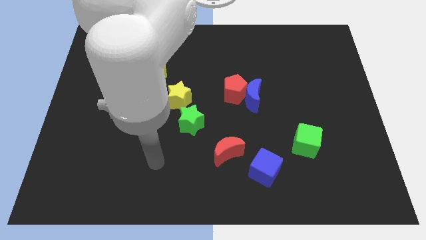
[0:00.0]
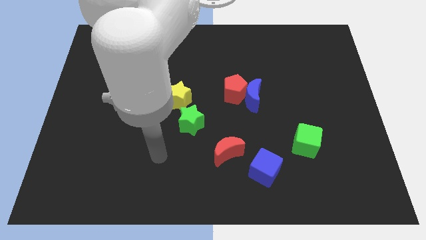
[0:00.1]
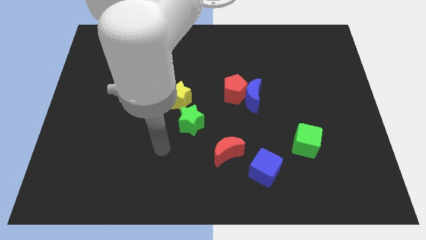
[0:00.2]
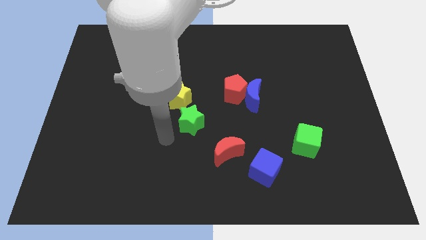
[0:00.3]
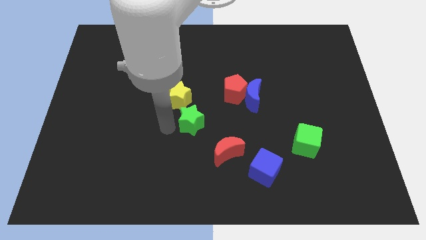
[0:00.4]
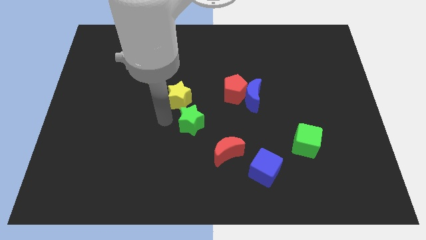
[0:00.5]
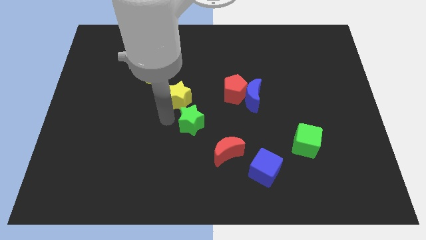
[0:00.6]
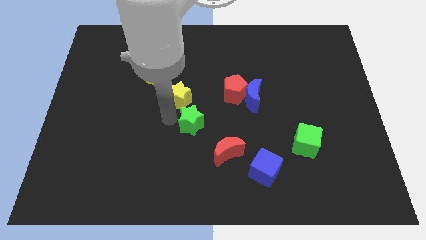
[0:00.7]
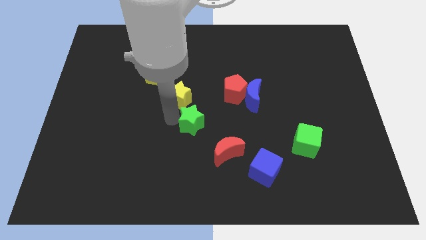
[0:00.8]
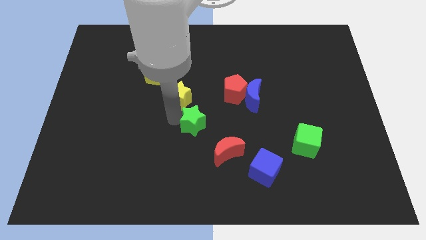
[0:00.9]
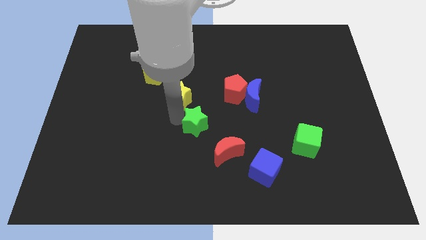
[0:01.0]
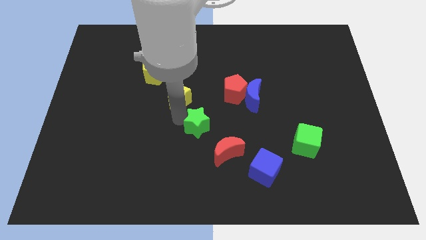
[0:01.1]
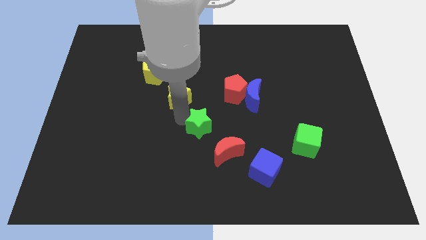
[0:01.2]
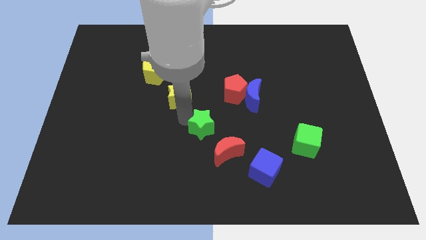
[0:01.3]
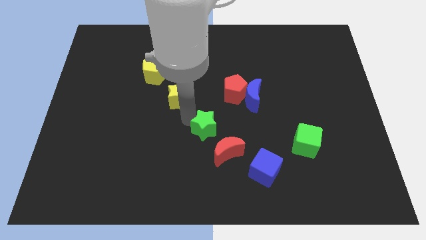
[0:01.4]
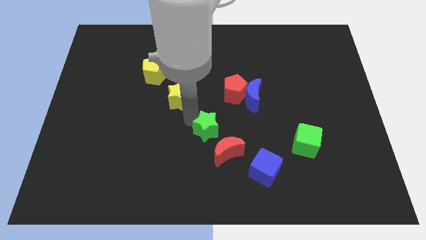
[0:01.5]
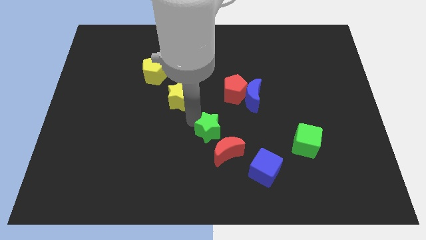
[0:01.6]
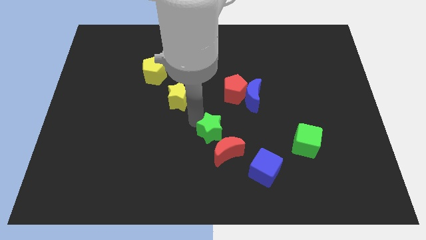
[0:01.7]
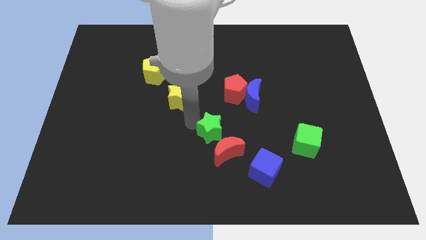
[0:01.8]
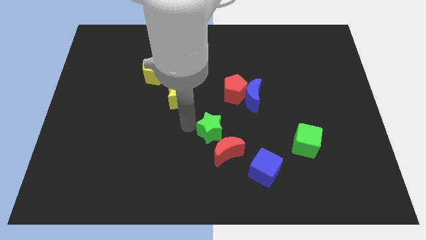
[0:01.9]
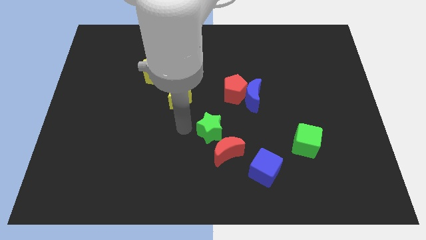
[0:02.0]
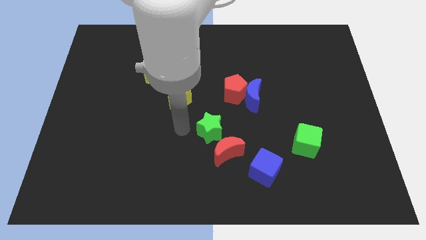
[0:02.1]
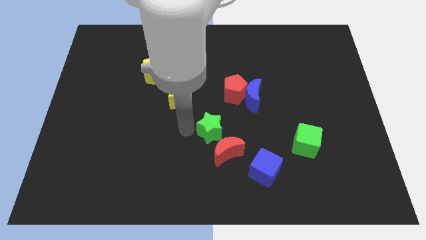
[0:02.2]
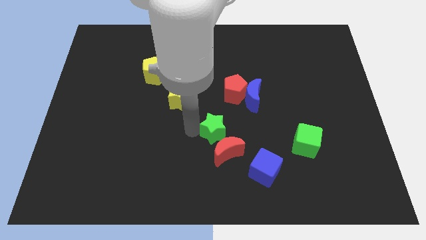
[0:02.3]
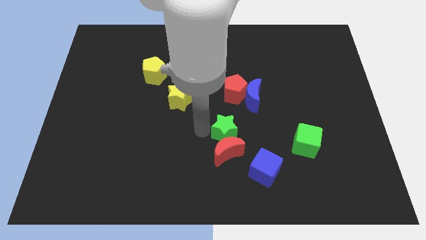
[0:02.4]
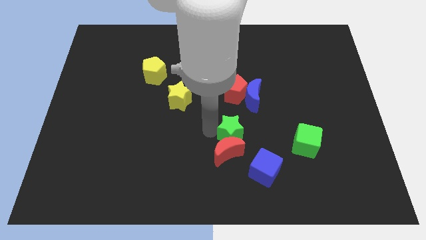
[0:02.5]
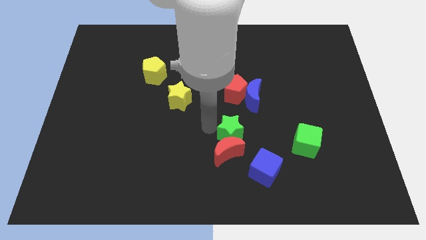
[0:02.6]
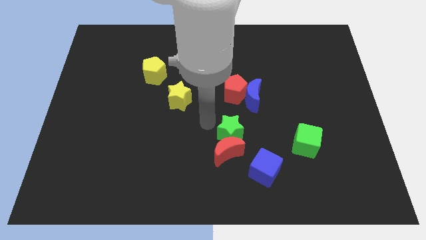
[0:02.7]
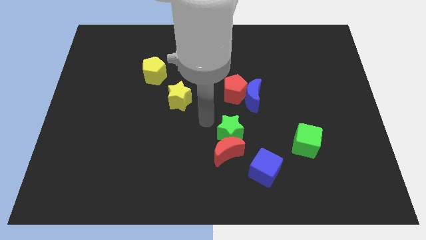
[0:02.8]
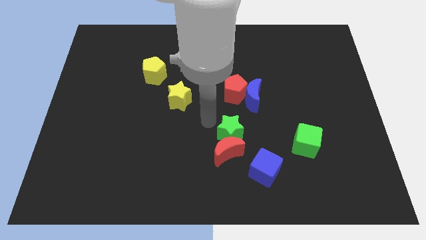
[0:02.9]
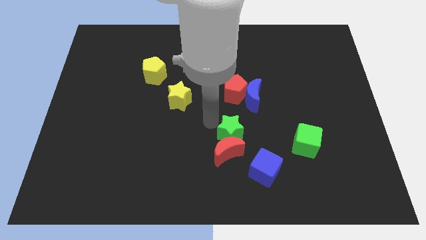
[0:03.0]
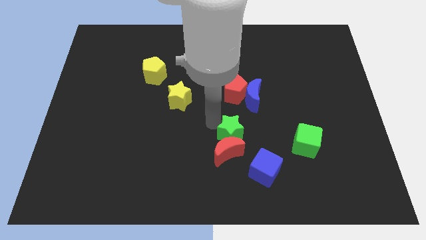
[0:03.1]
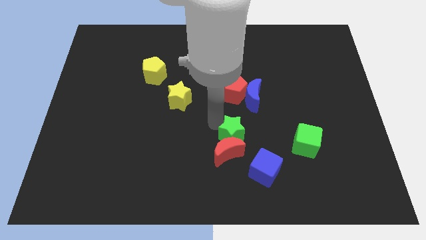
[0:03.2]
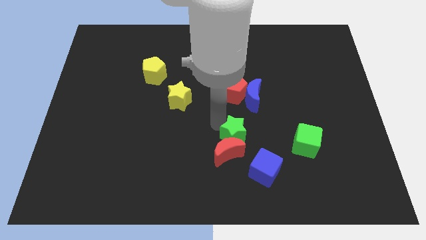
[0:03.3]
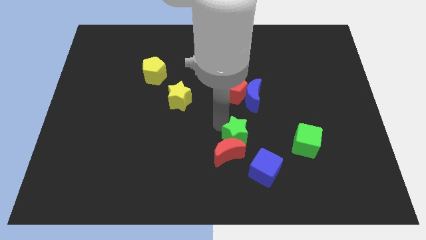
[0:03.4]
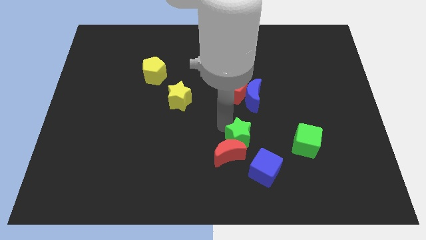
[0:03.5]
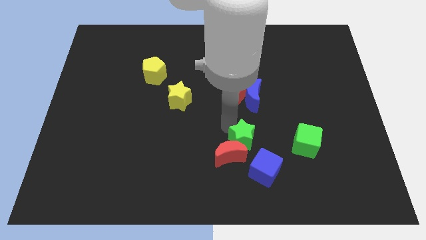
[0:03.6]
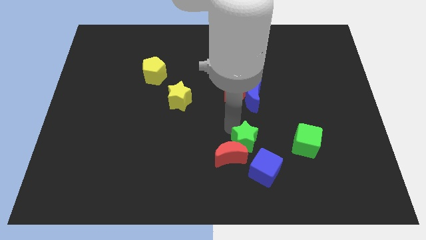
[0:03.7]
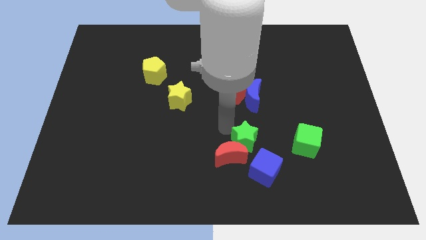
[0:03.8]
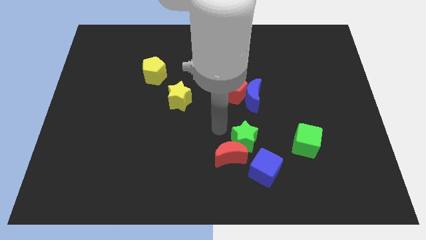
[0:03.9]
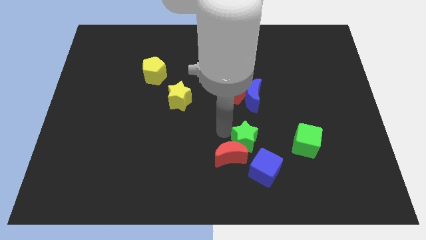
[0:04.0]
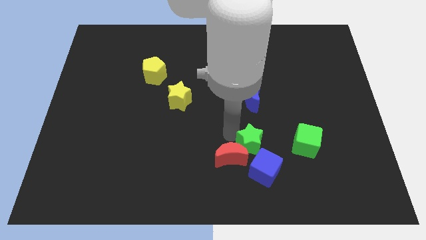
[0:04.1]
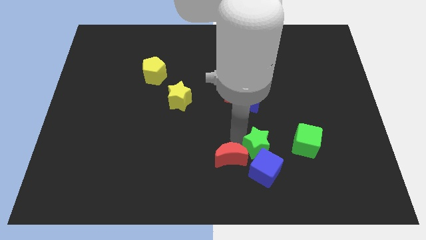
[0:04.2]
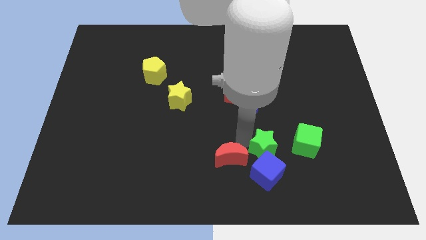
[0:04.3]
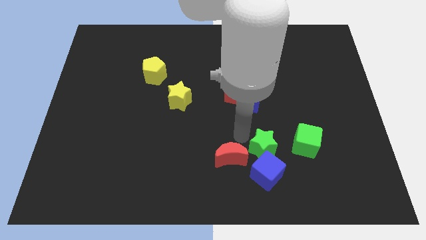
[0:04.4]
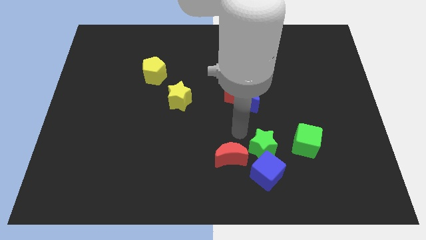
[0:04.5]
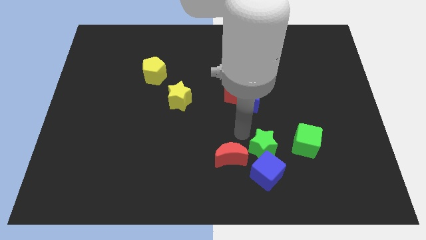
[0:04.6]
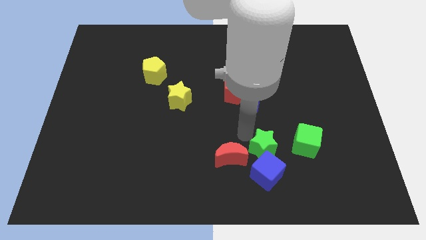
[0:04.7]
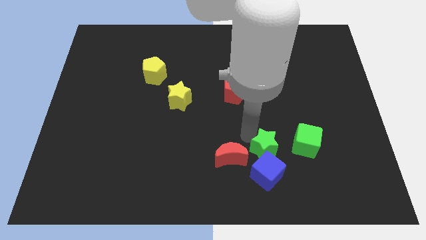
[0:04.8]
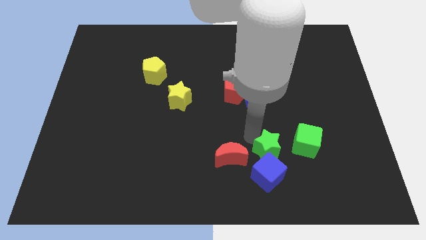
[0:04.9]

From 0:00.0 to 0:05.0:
move the green star to the bottom left side of the green cube

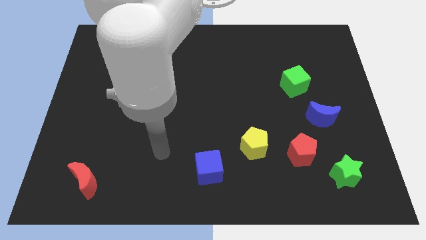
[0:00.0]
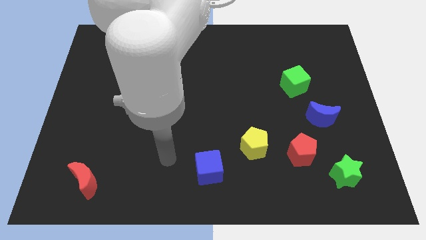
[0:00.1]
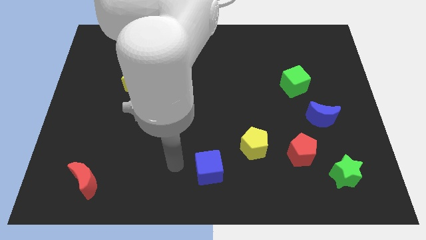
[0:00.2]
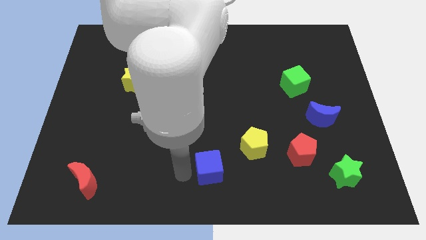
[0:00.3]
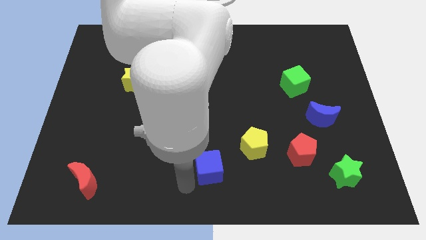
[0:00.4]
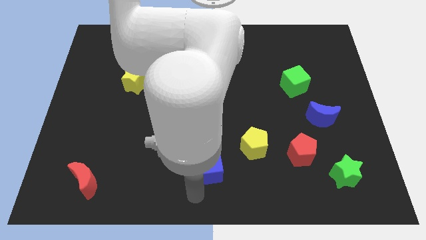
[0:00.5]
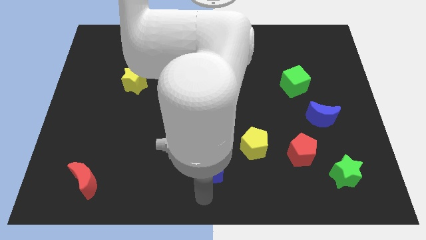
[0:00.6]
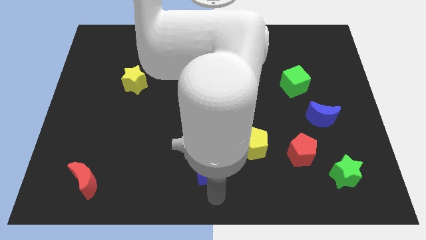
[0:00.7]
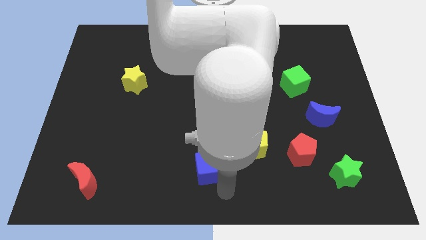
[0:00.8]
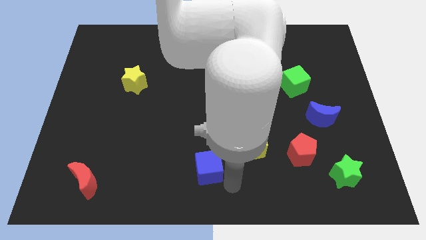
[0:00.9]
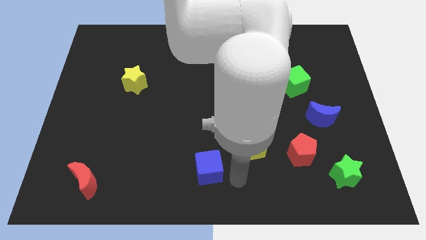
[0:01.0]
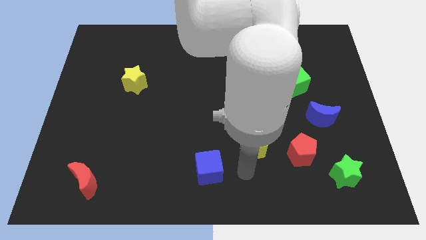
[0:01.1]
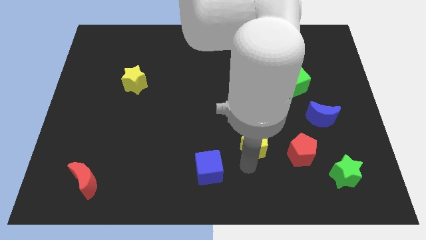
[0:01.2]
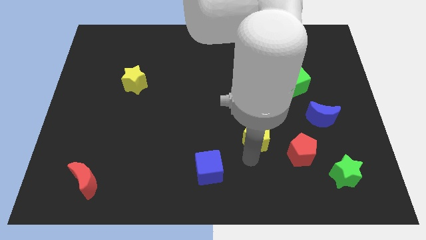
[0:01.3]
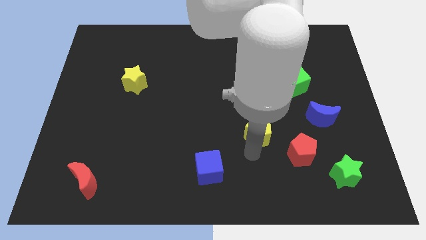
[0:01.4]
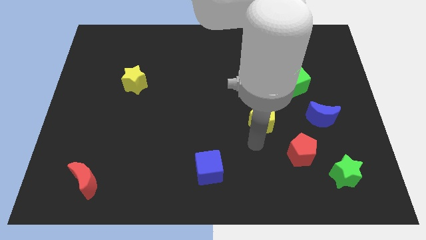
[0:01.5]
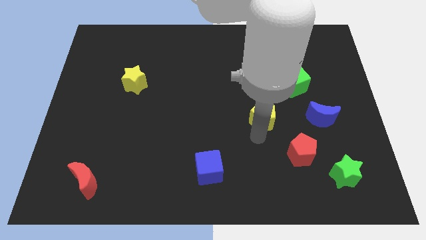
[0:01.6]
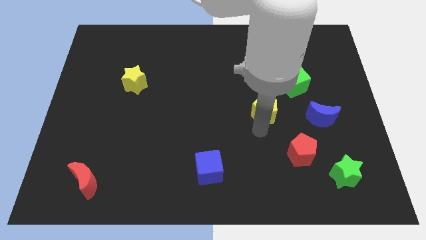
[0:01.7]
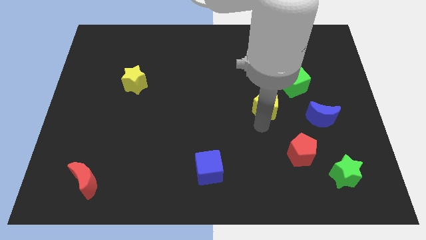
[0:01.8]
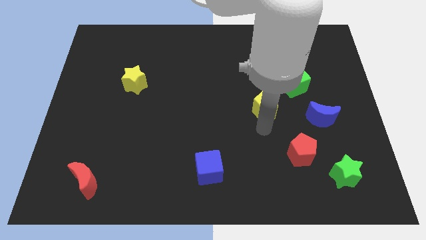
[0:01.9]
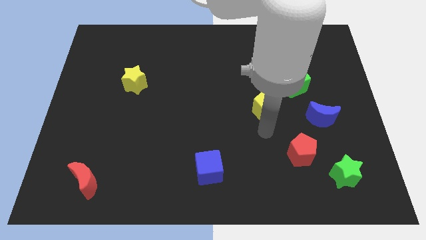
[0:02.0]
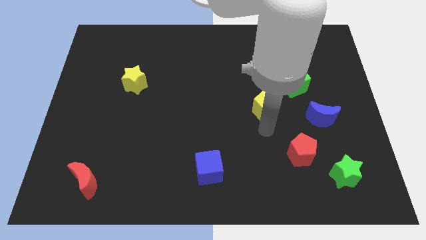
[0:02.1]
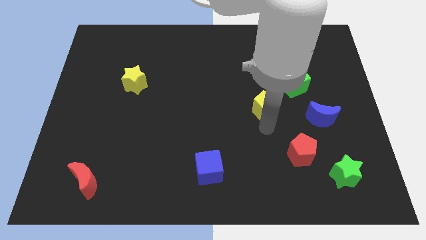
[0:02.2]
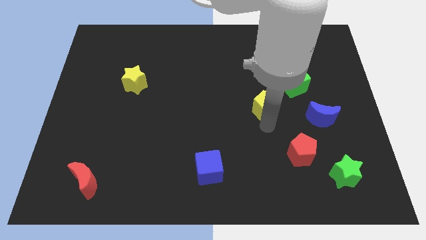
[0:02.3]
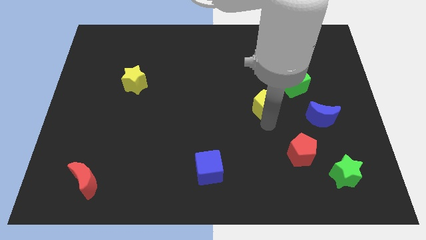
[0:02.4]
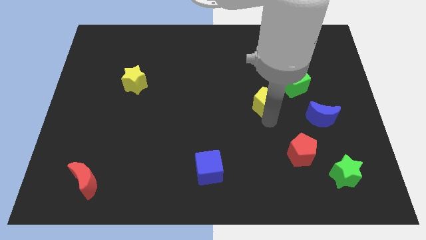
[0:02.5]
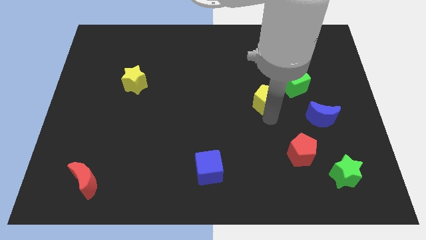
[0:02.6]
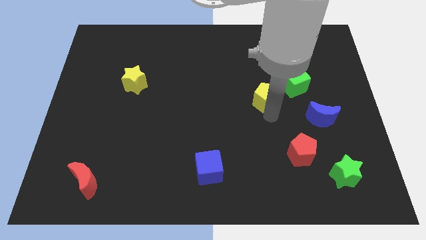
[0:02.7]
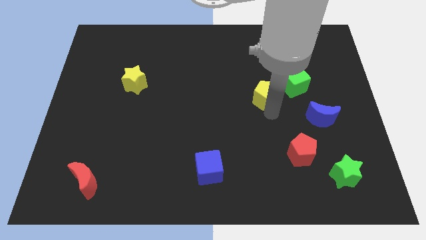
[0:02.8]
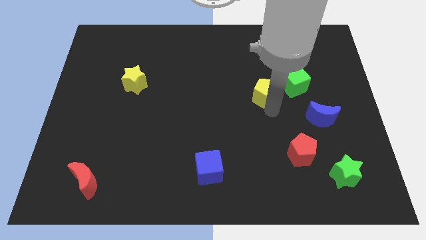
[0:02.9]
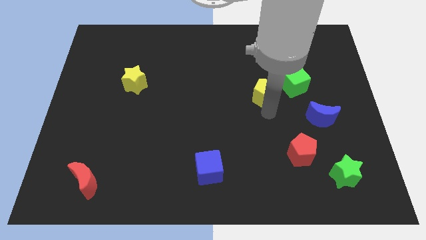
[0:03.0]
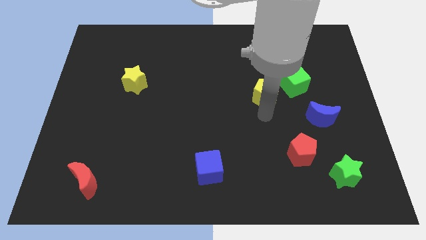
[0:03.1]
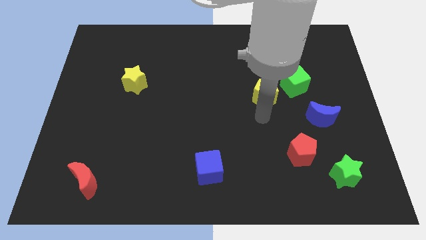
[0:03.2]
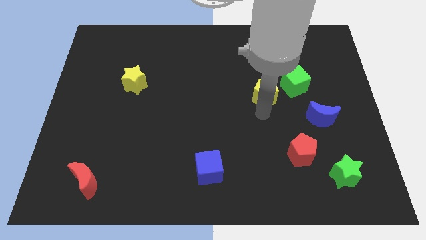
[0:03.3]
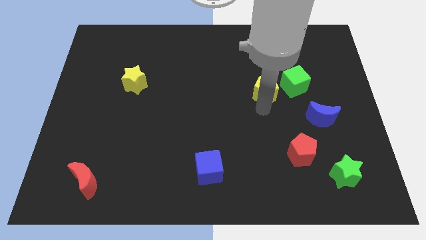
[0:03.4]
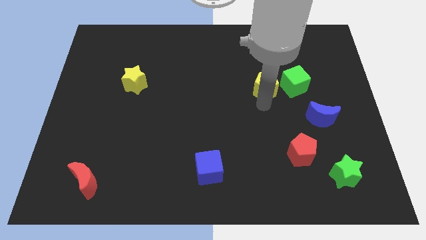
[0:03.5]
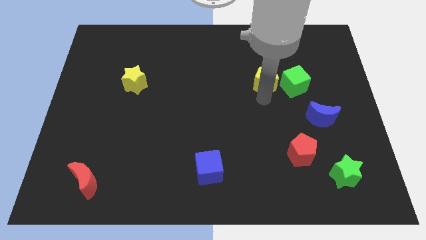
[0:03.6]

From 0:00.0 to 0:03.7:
slide the yellow pentagon to the top left of the green cube
